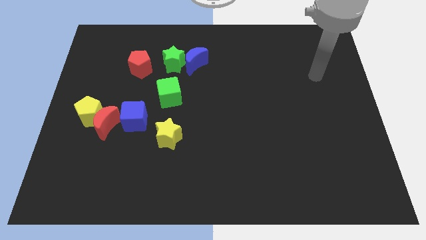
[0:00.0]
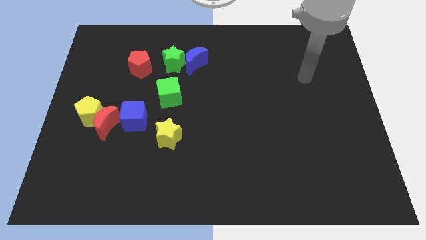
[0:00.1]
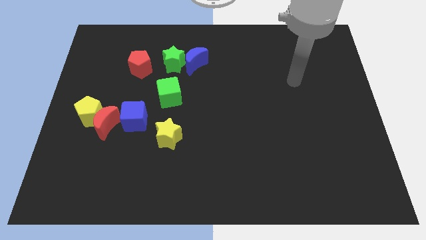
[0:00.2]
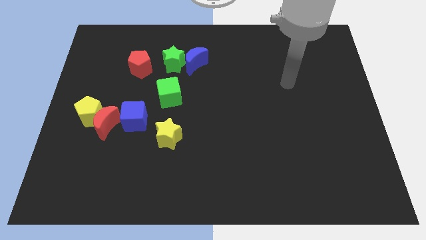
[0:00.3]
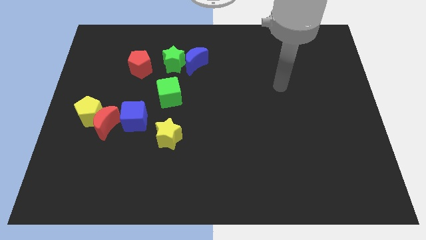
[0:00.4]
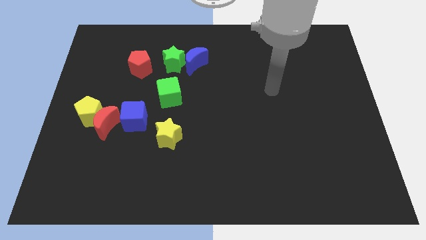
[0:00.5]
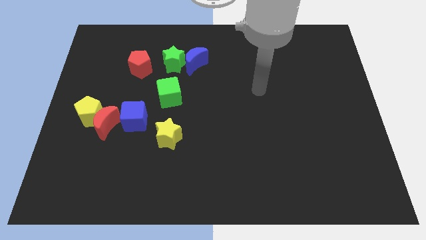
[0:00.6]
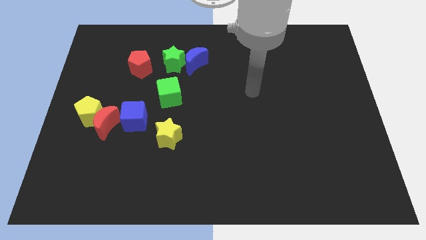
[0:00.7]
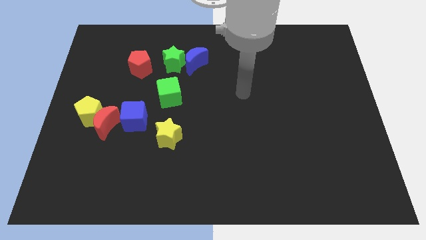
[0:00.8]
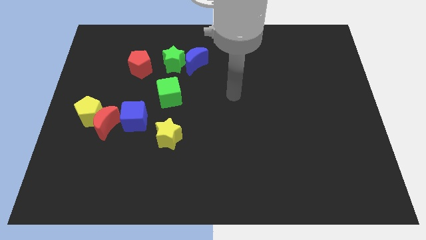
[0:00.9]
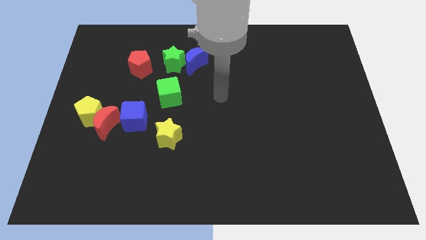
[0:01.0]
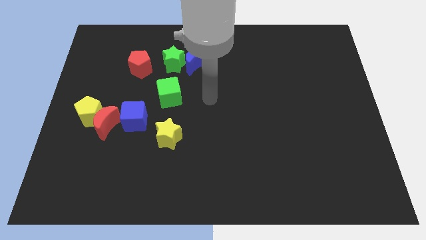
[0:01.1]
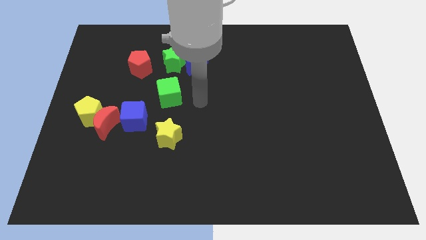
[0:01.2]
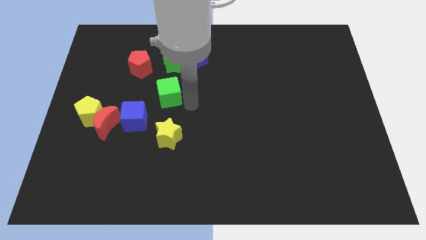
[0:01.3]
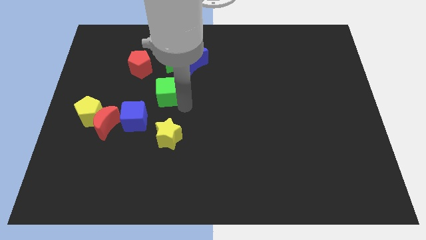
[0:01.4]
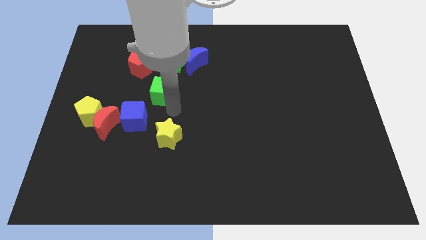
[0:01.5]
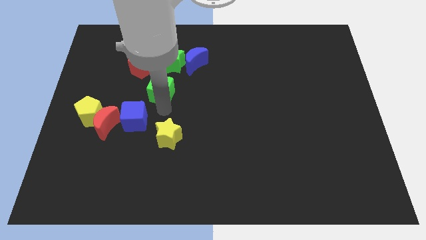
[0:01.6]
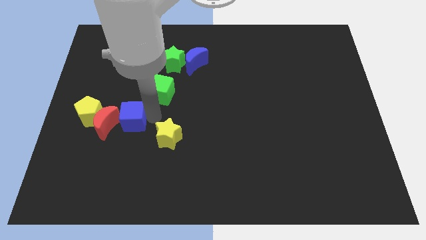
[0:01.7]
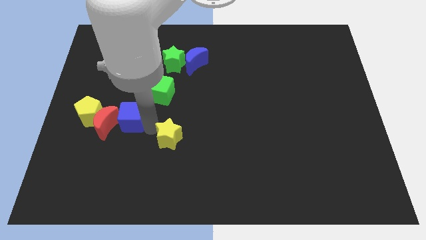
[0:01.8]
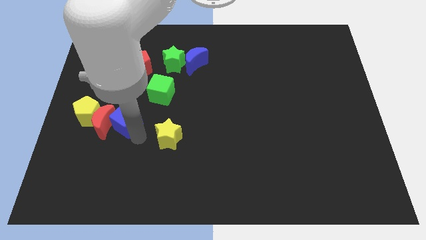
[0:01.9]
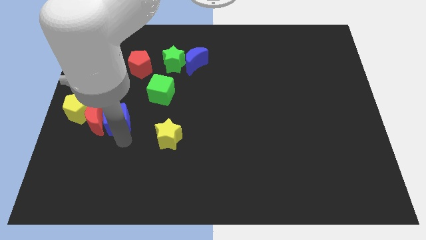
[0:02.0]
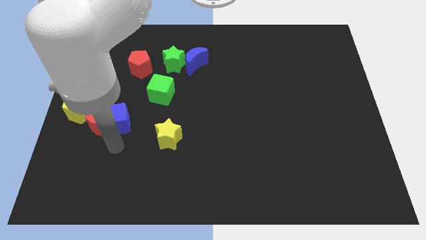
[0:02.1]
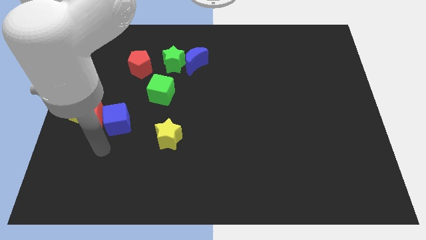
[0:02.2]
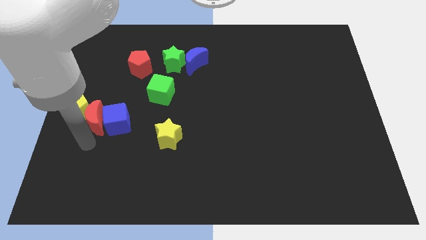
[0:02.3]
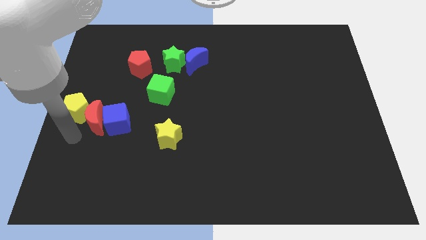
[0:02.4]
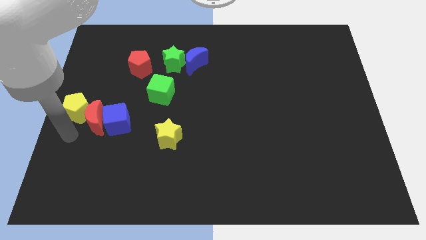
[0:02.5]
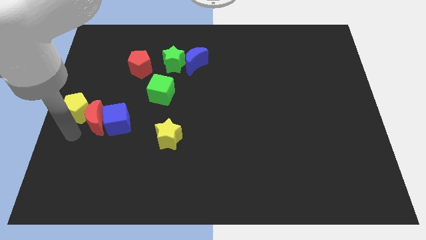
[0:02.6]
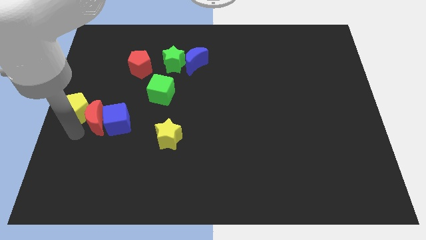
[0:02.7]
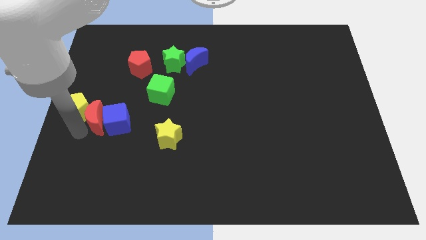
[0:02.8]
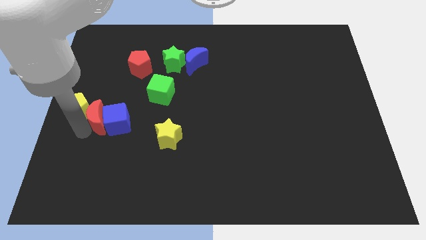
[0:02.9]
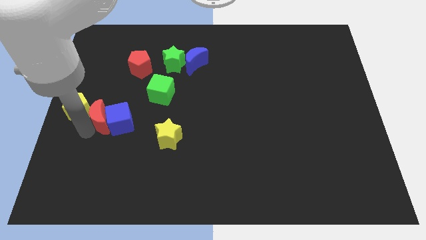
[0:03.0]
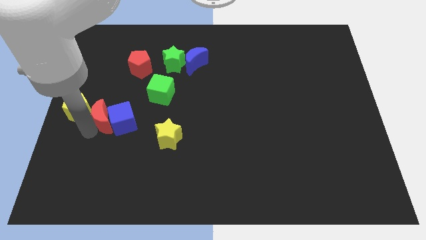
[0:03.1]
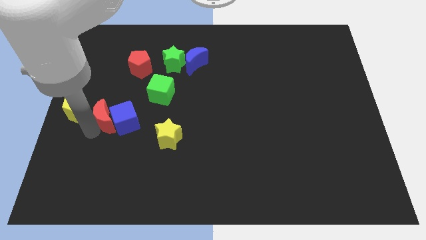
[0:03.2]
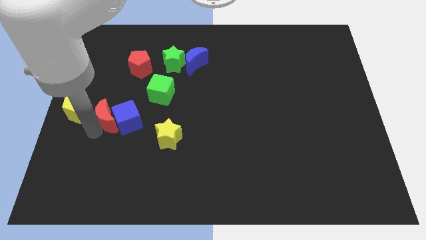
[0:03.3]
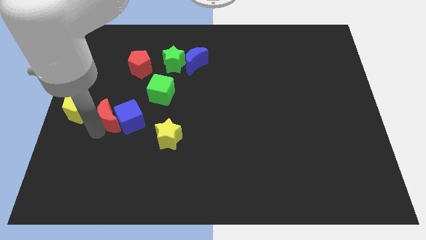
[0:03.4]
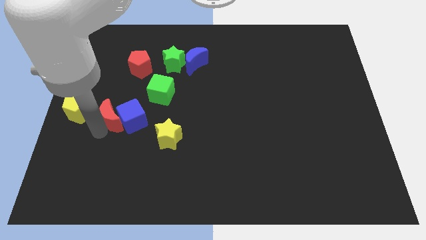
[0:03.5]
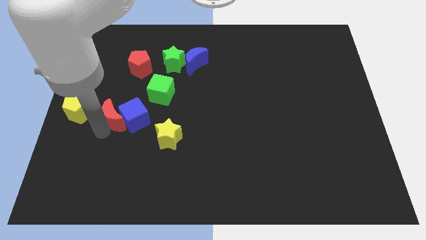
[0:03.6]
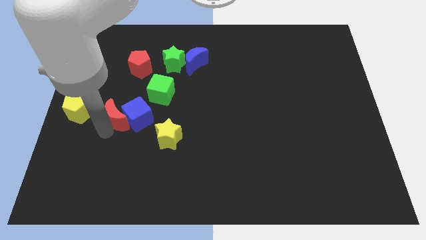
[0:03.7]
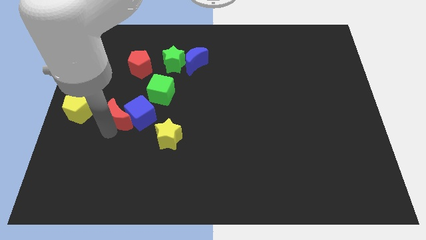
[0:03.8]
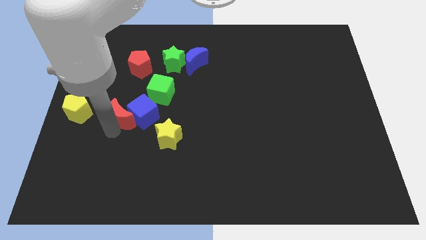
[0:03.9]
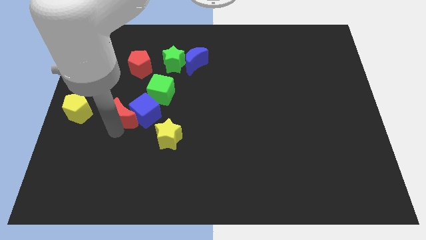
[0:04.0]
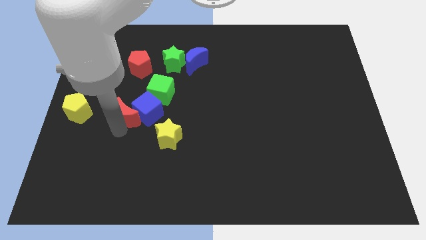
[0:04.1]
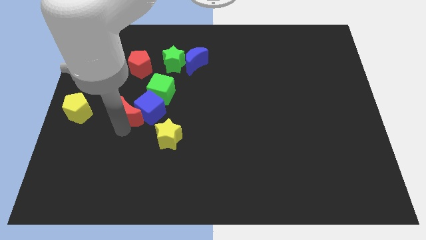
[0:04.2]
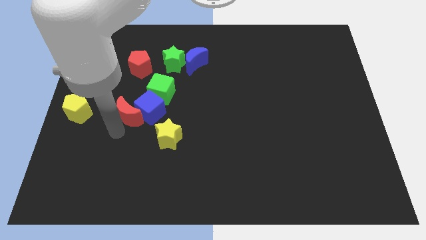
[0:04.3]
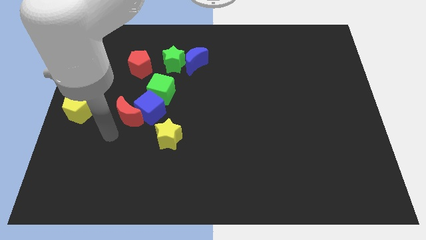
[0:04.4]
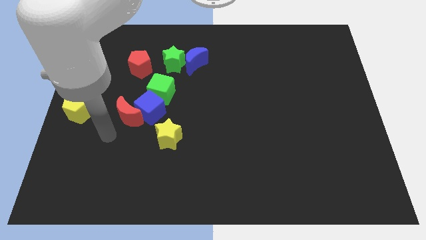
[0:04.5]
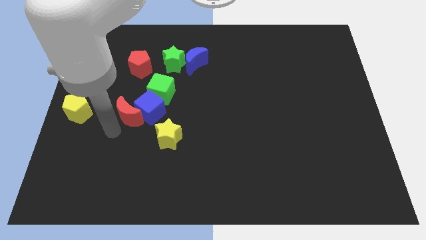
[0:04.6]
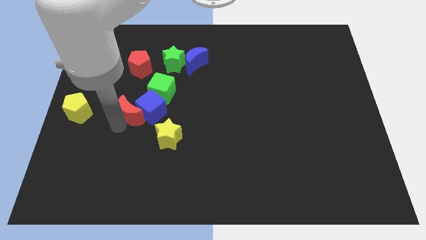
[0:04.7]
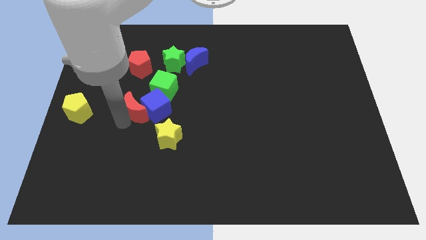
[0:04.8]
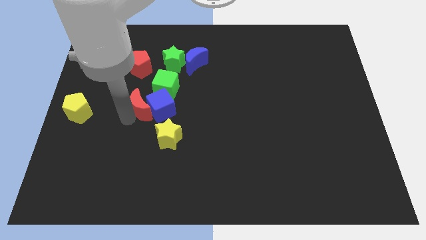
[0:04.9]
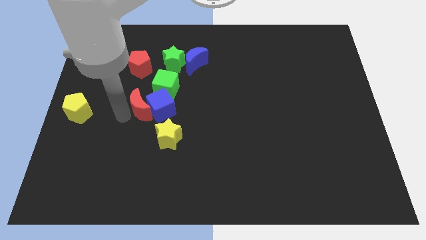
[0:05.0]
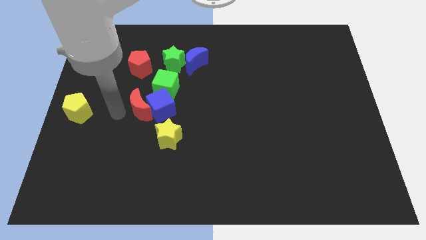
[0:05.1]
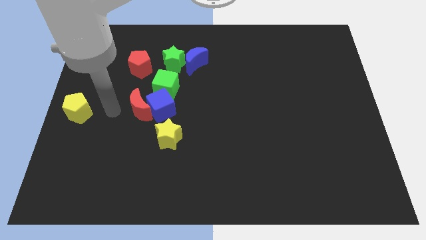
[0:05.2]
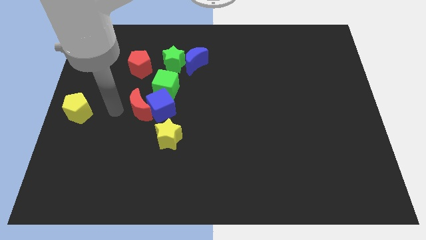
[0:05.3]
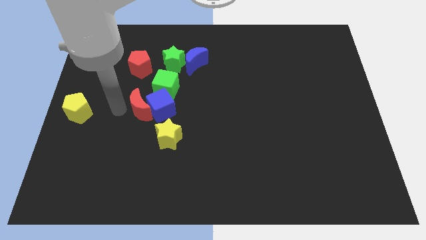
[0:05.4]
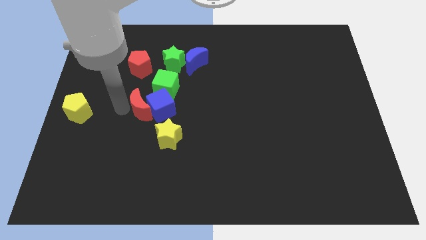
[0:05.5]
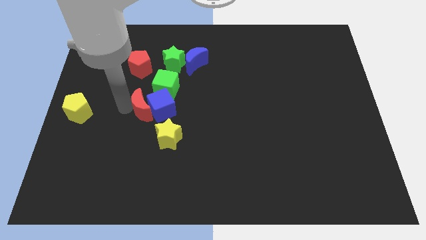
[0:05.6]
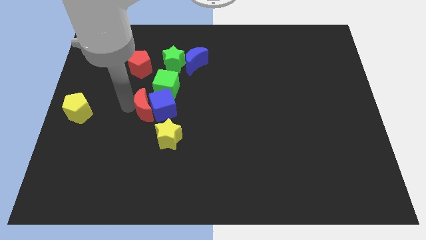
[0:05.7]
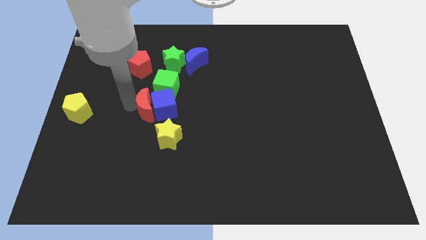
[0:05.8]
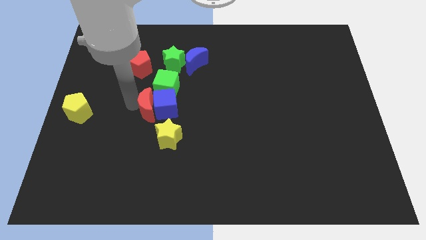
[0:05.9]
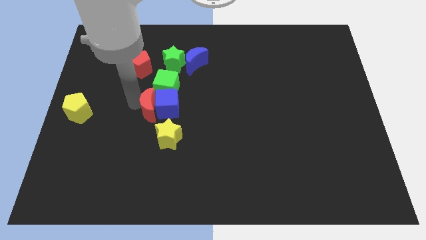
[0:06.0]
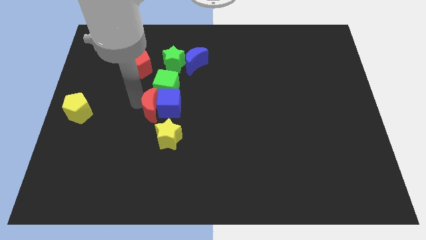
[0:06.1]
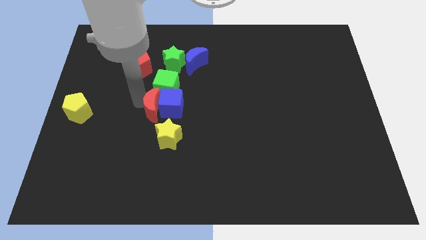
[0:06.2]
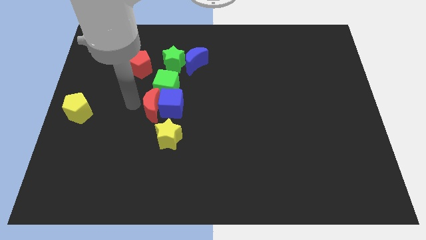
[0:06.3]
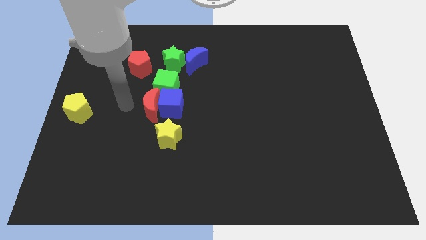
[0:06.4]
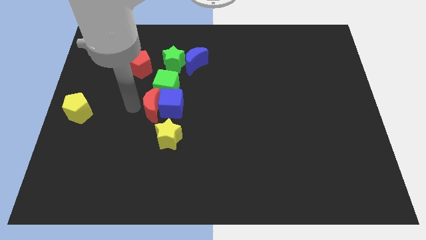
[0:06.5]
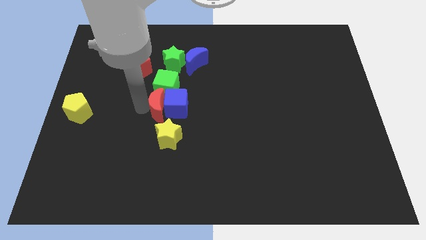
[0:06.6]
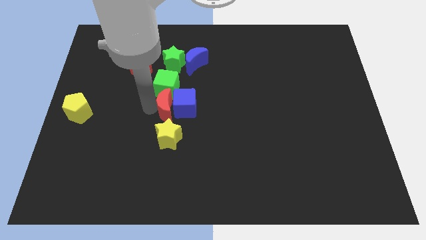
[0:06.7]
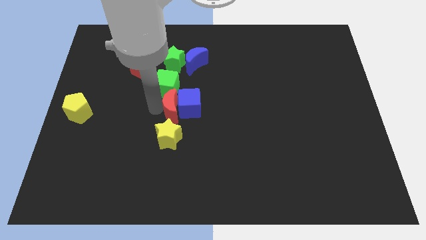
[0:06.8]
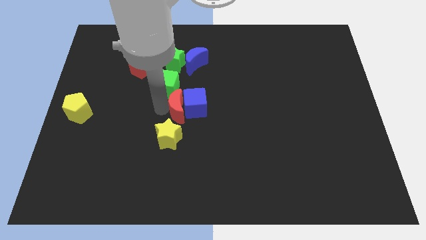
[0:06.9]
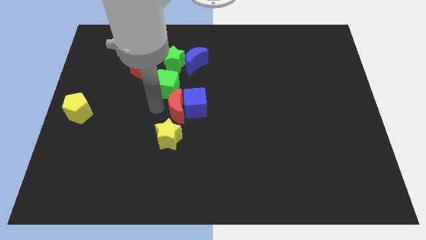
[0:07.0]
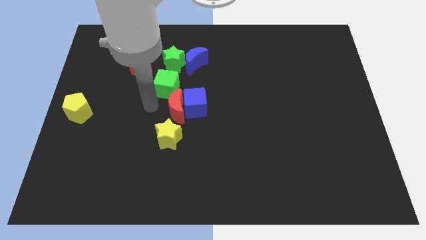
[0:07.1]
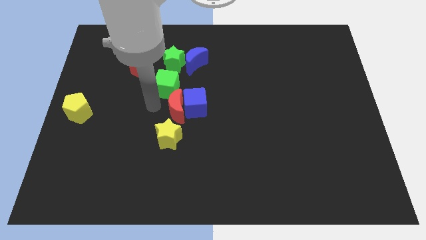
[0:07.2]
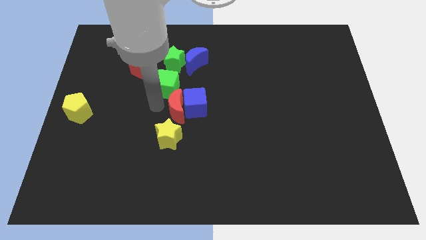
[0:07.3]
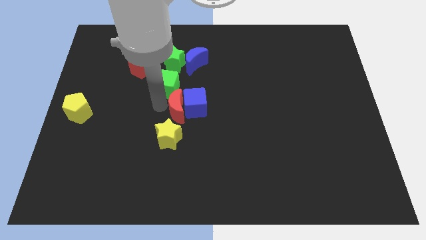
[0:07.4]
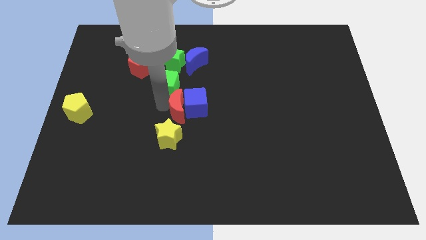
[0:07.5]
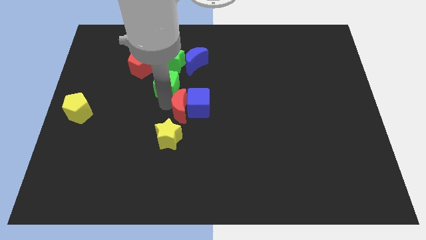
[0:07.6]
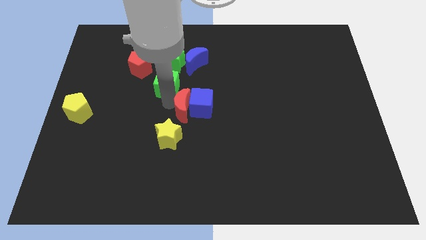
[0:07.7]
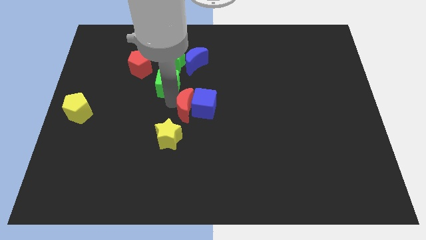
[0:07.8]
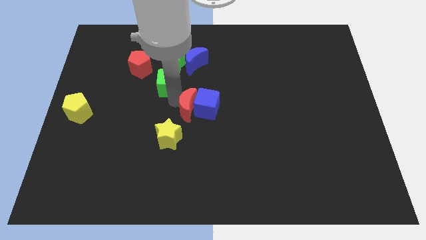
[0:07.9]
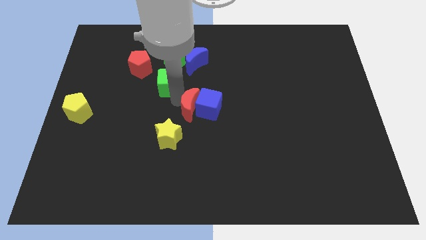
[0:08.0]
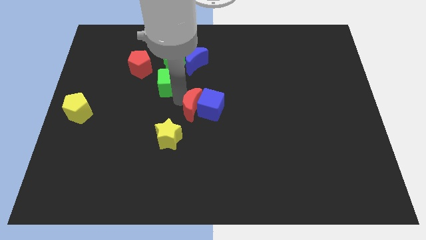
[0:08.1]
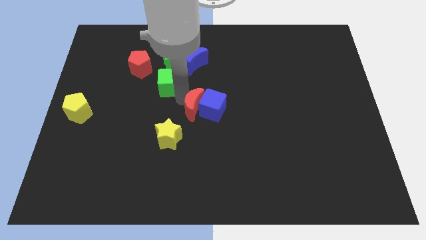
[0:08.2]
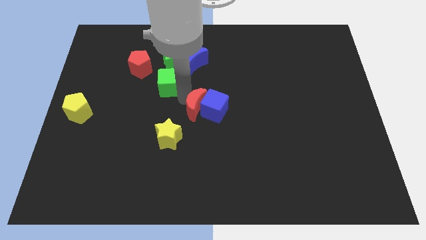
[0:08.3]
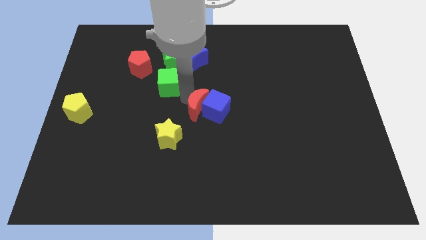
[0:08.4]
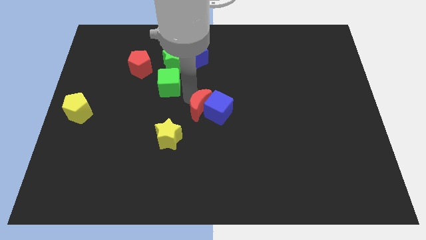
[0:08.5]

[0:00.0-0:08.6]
push the red moon right
